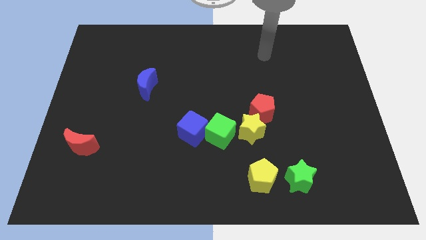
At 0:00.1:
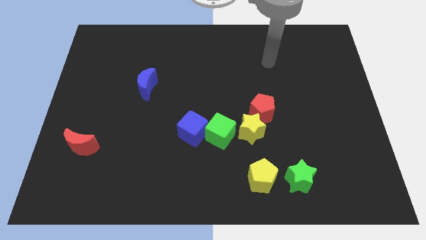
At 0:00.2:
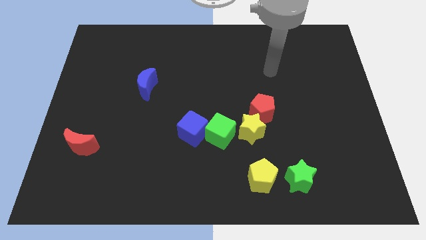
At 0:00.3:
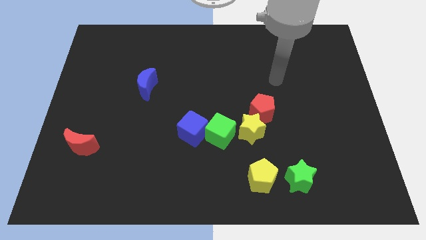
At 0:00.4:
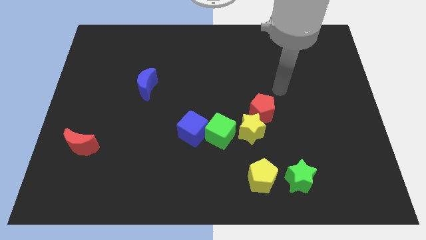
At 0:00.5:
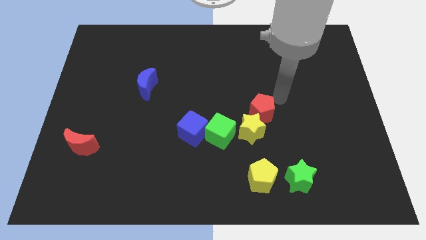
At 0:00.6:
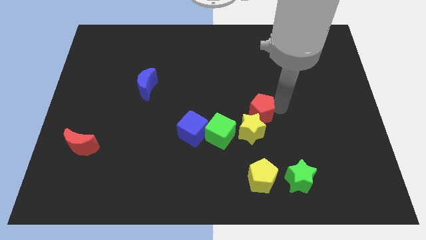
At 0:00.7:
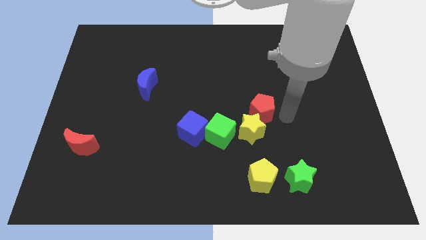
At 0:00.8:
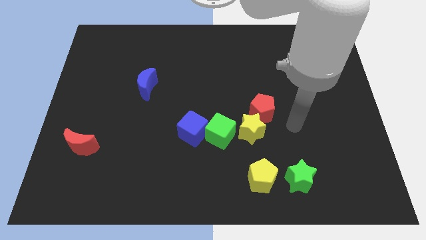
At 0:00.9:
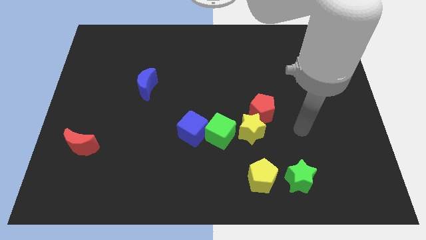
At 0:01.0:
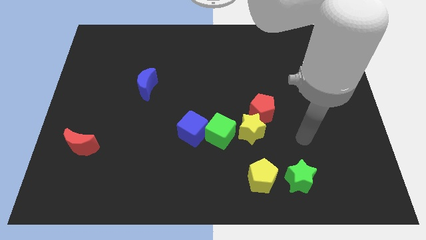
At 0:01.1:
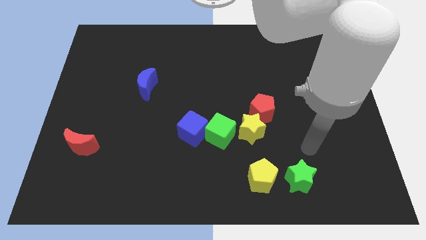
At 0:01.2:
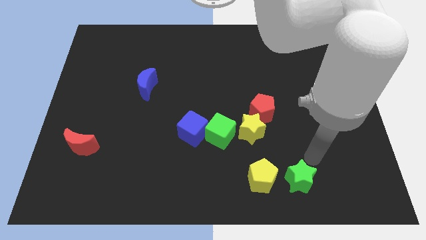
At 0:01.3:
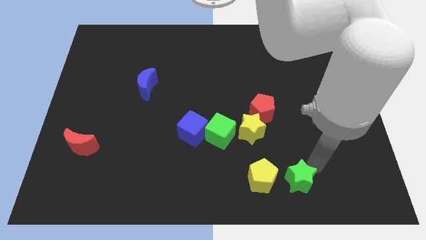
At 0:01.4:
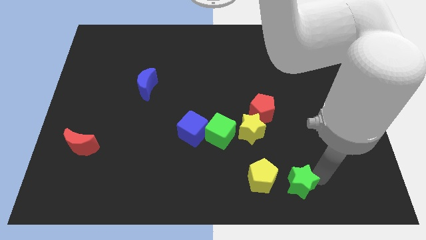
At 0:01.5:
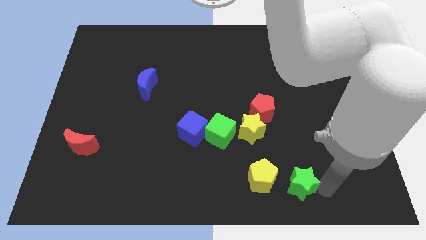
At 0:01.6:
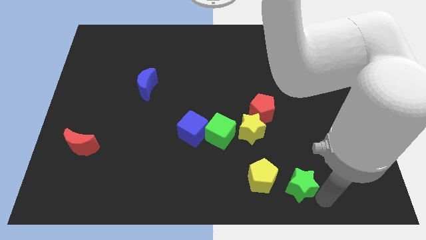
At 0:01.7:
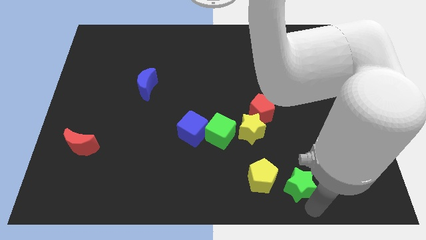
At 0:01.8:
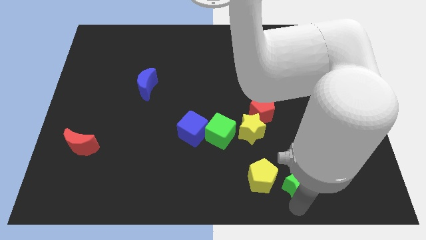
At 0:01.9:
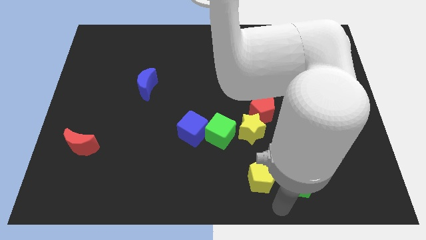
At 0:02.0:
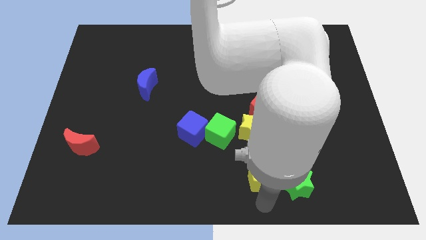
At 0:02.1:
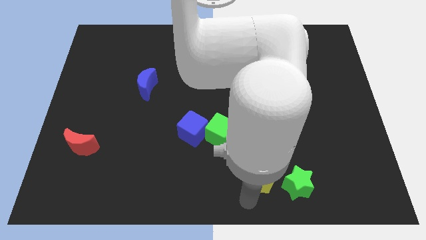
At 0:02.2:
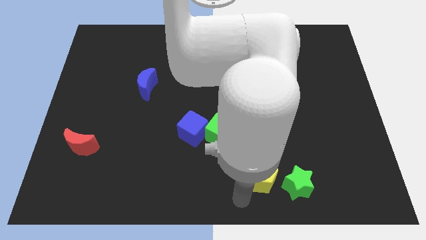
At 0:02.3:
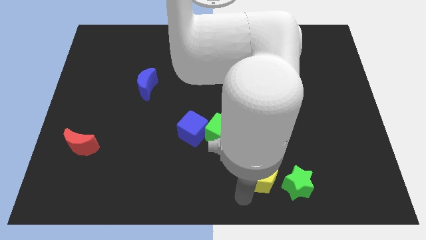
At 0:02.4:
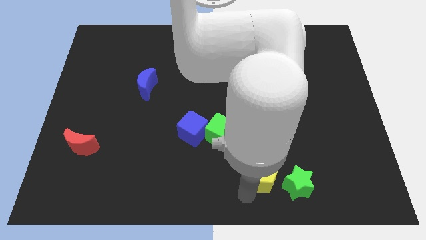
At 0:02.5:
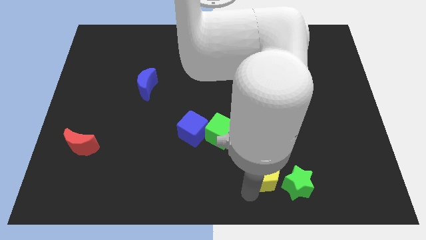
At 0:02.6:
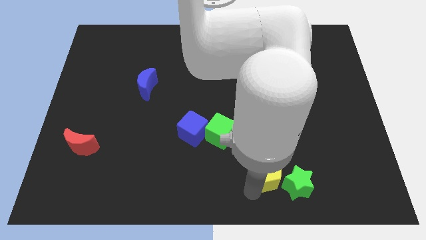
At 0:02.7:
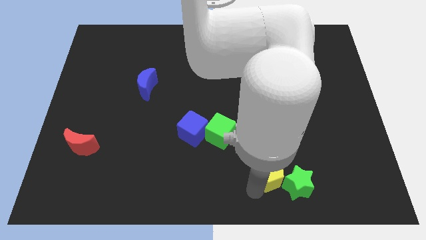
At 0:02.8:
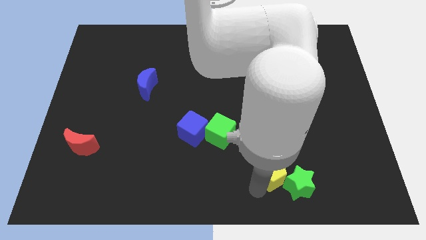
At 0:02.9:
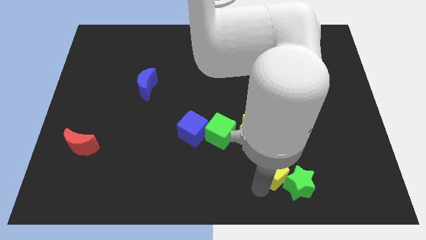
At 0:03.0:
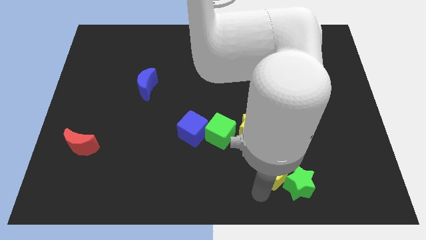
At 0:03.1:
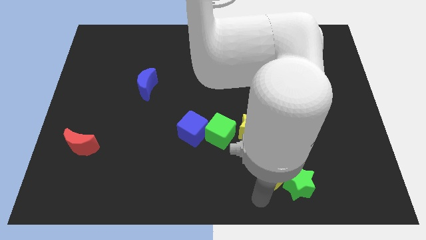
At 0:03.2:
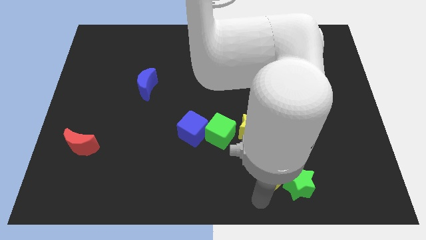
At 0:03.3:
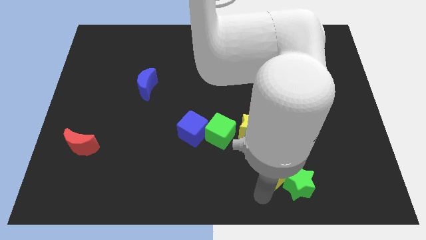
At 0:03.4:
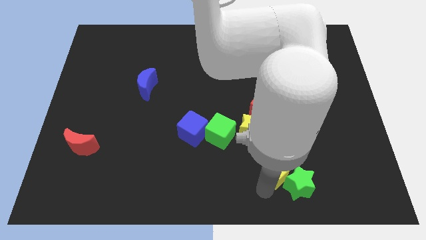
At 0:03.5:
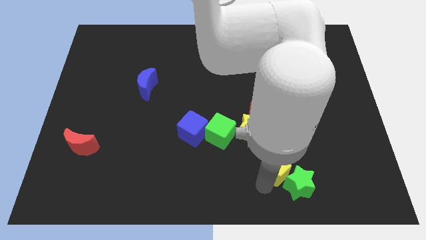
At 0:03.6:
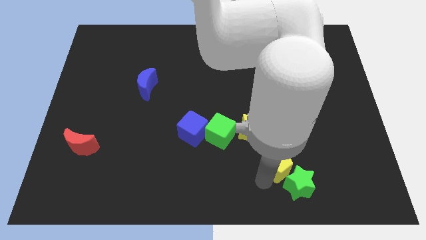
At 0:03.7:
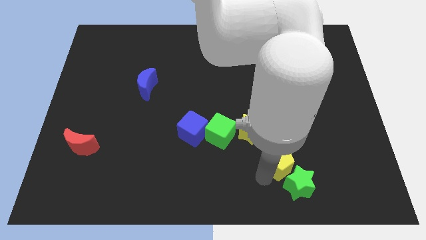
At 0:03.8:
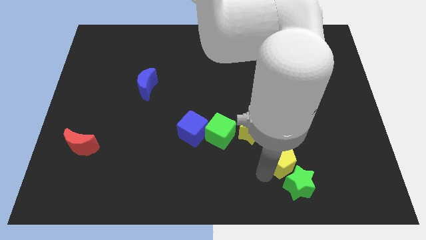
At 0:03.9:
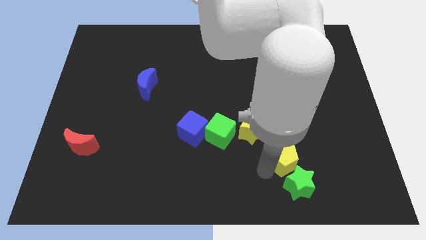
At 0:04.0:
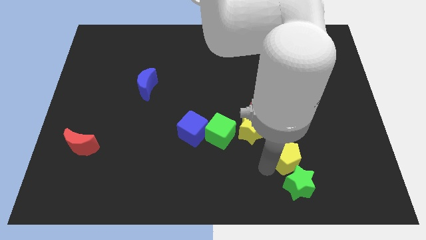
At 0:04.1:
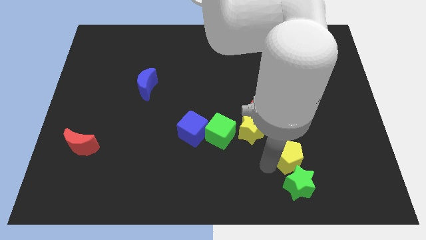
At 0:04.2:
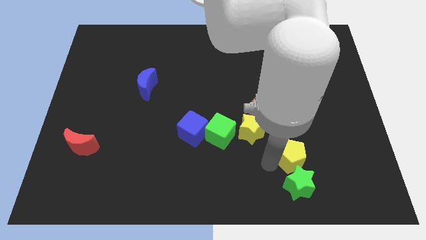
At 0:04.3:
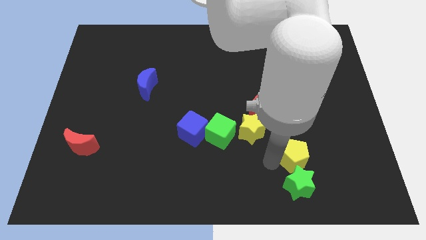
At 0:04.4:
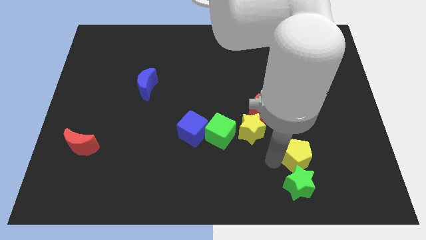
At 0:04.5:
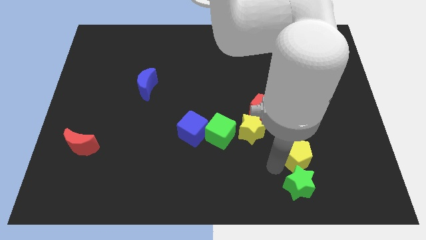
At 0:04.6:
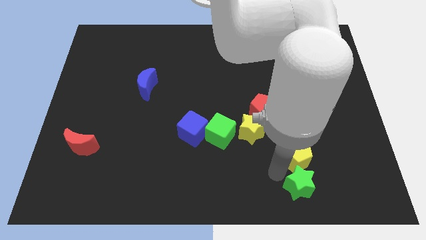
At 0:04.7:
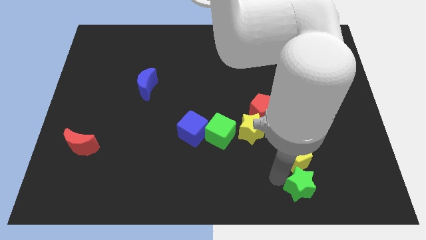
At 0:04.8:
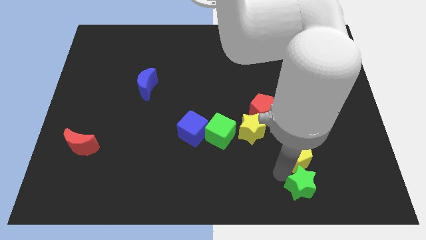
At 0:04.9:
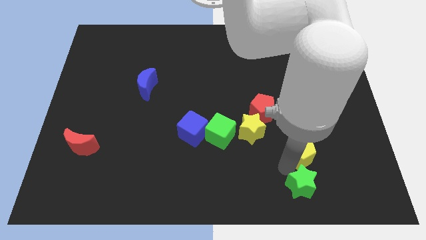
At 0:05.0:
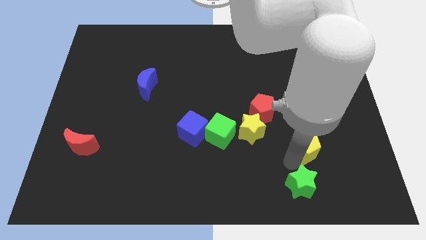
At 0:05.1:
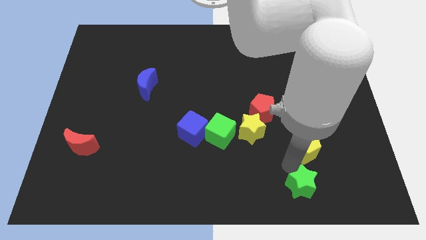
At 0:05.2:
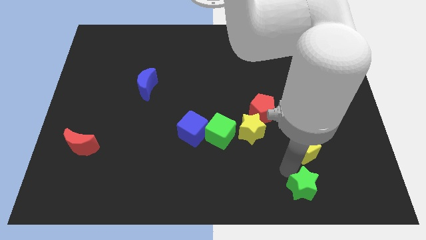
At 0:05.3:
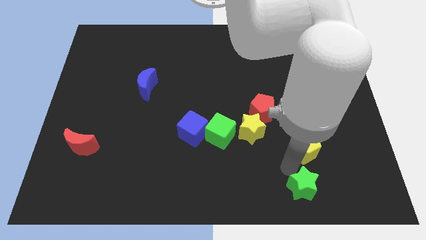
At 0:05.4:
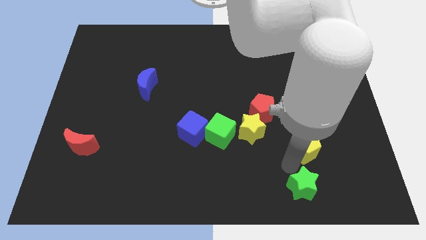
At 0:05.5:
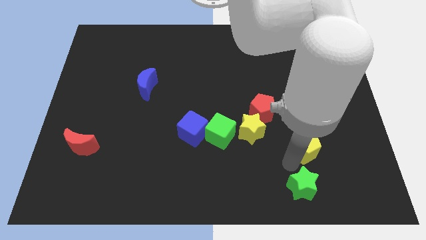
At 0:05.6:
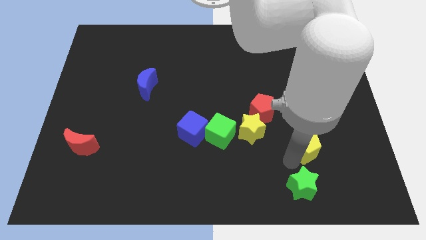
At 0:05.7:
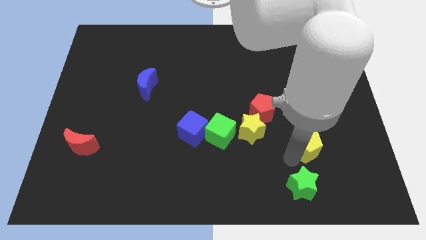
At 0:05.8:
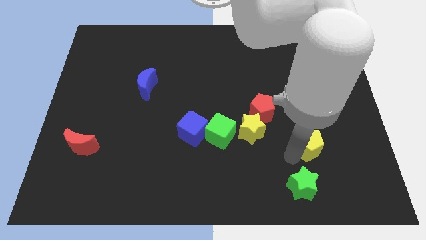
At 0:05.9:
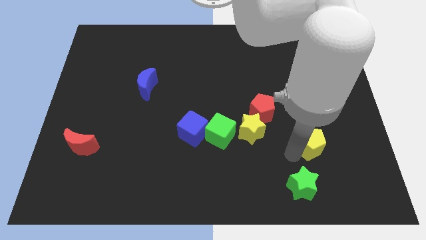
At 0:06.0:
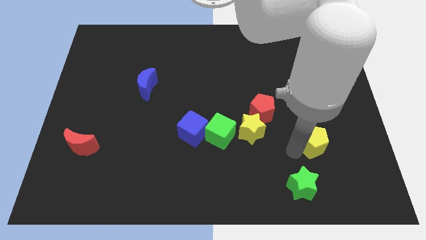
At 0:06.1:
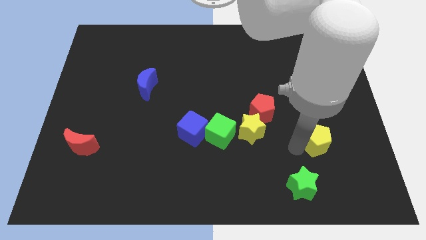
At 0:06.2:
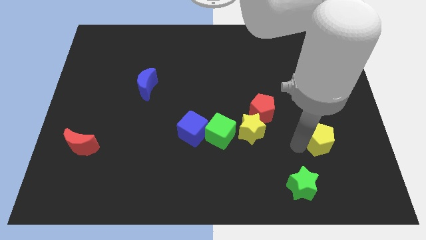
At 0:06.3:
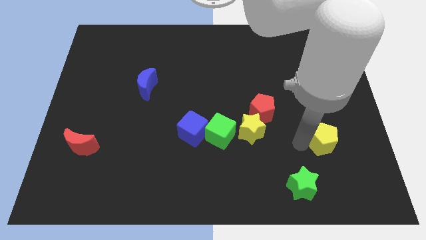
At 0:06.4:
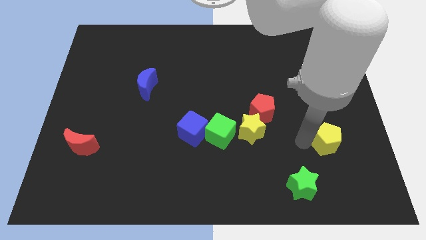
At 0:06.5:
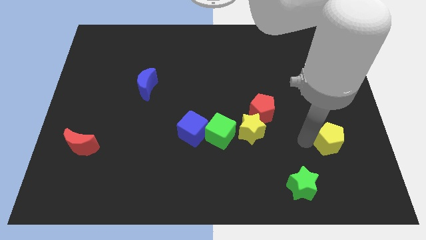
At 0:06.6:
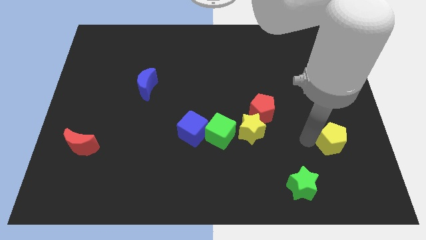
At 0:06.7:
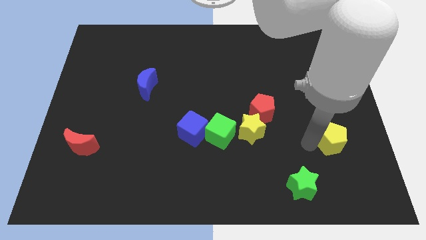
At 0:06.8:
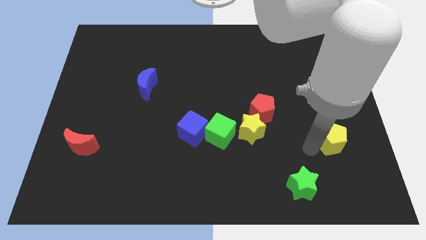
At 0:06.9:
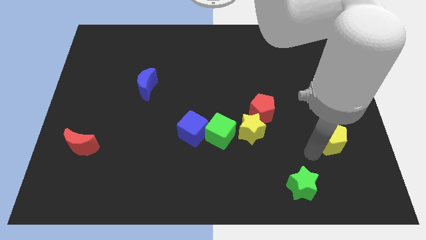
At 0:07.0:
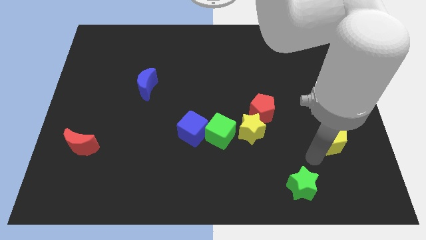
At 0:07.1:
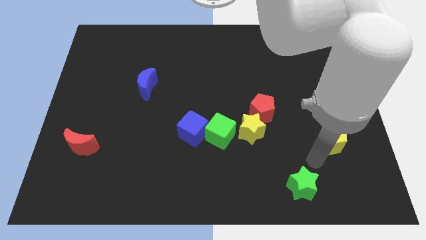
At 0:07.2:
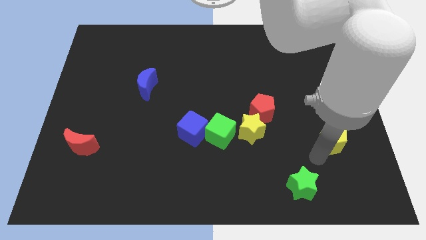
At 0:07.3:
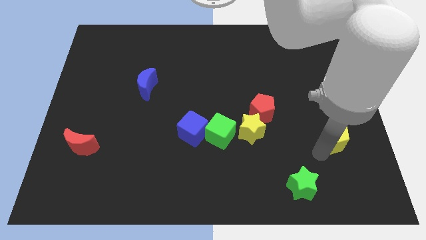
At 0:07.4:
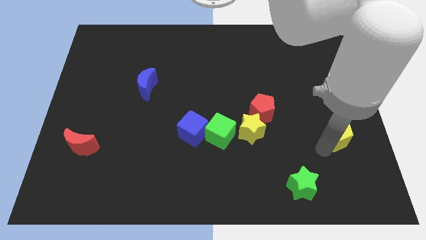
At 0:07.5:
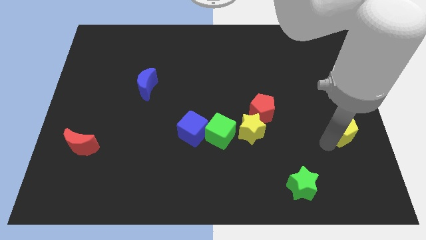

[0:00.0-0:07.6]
slide the yellow pentagon to the right side of the board
